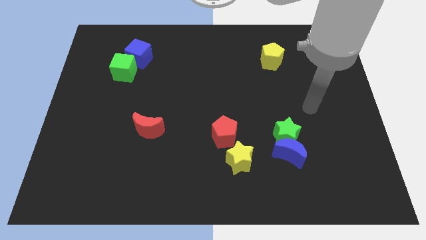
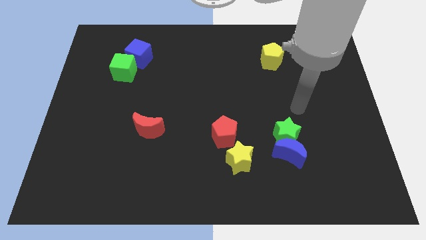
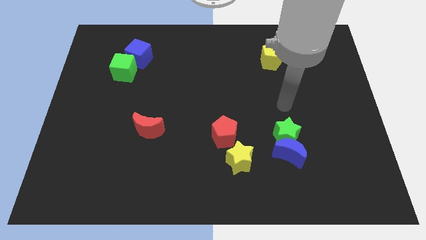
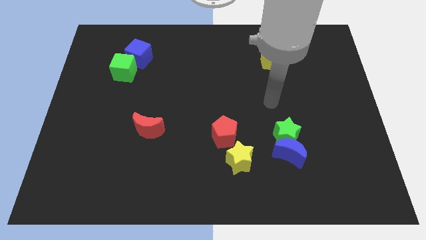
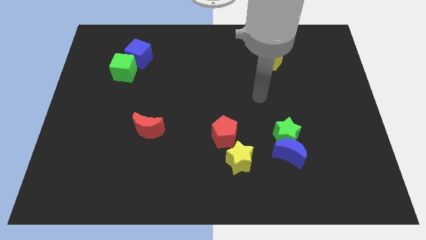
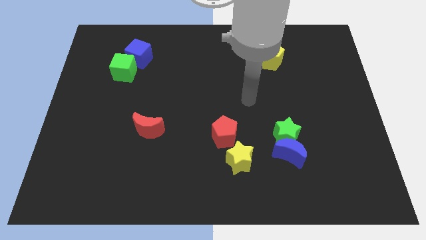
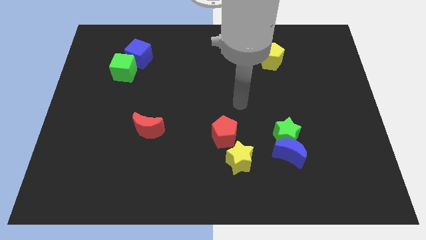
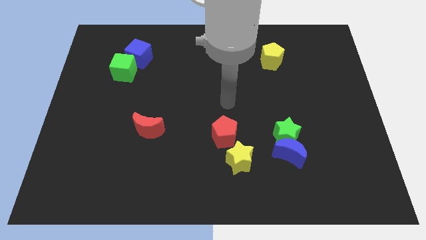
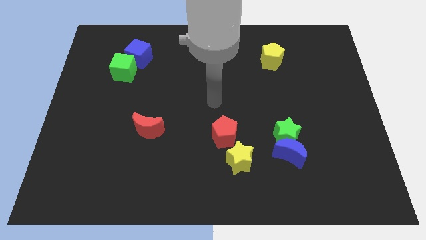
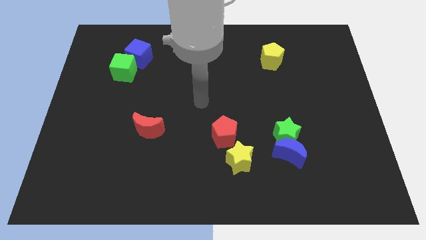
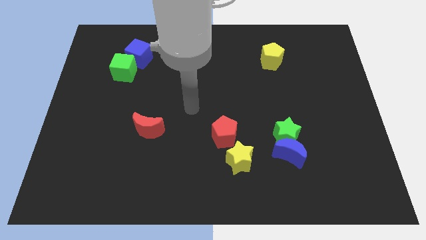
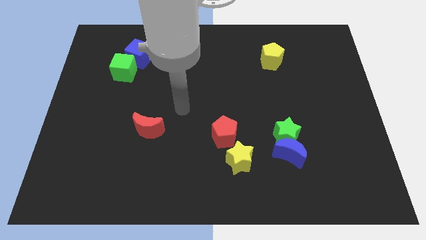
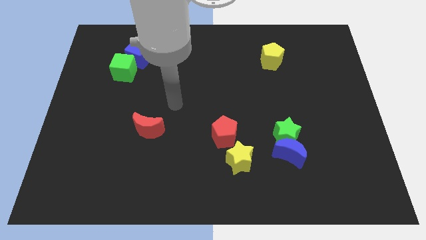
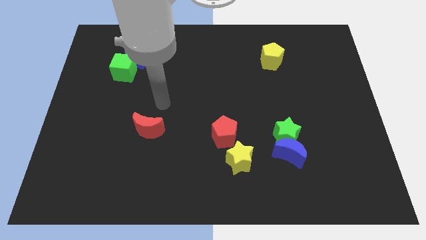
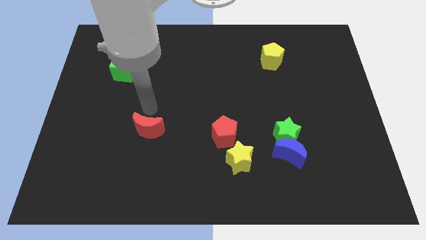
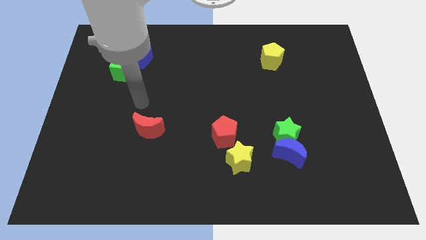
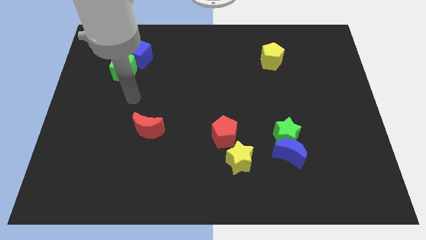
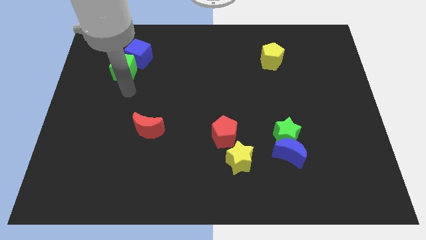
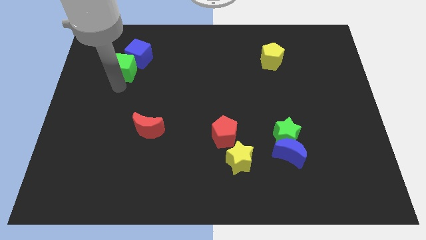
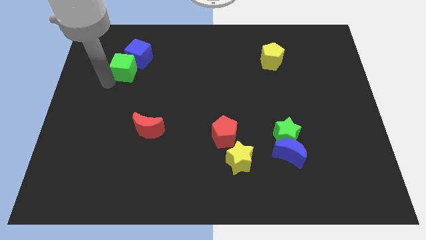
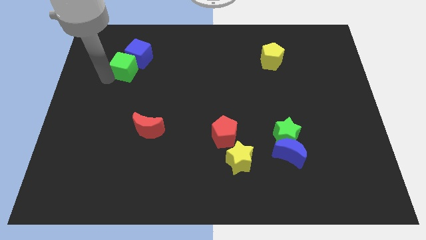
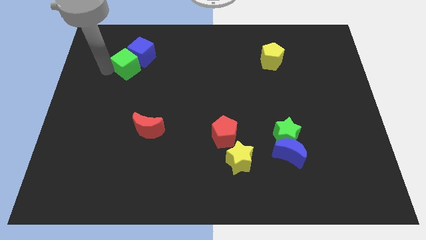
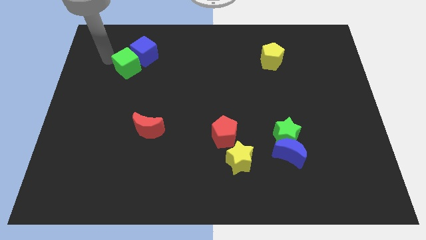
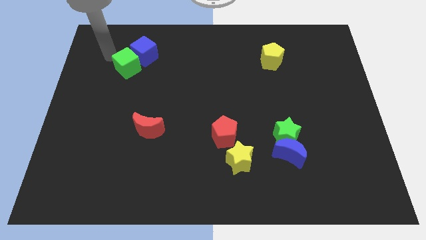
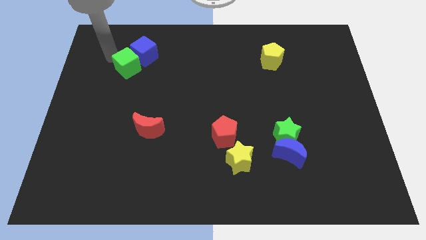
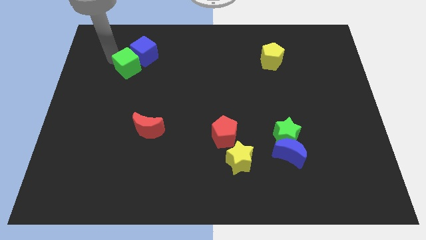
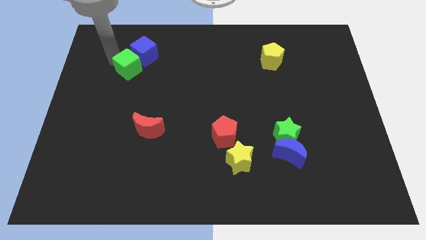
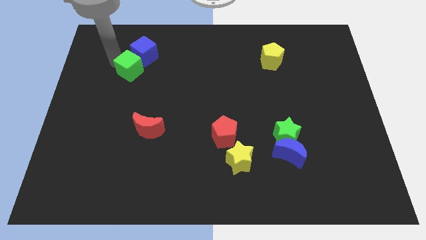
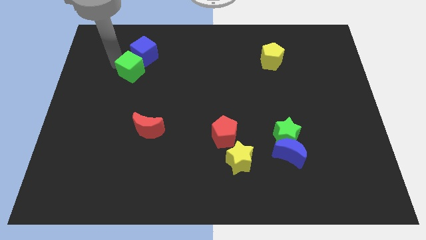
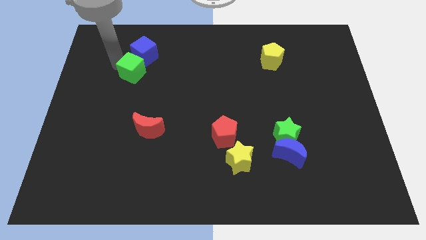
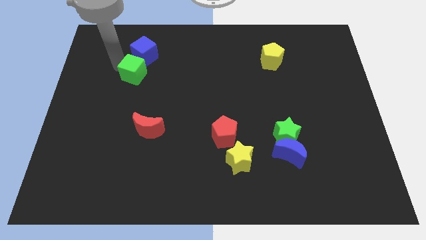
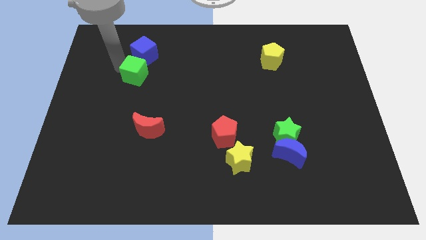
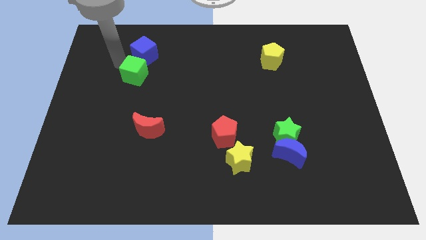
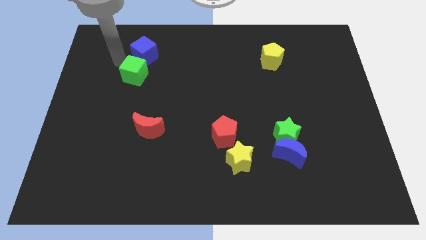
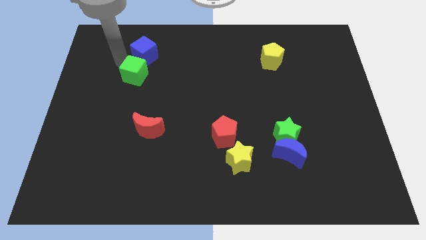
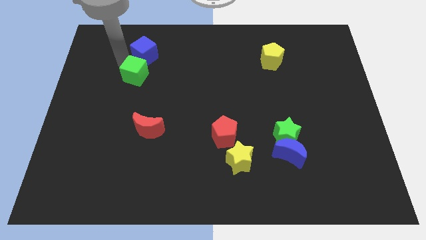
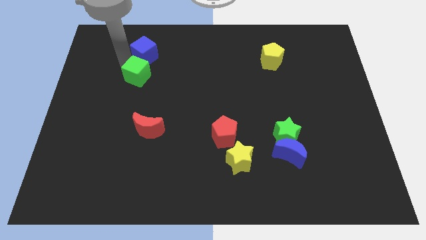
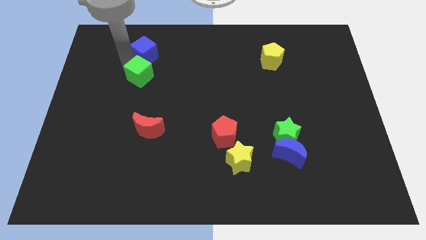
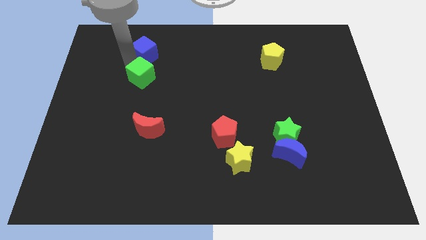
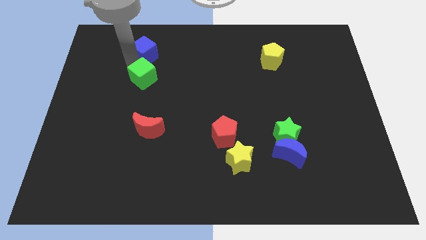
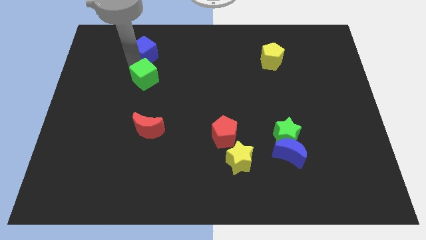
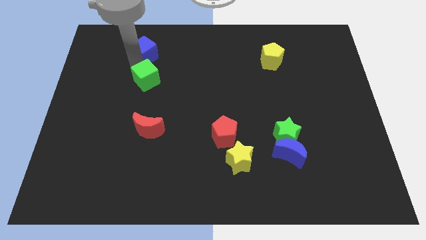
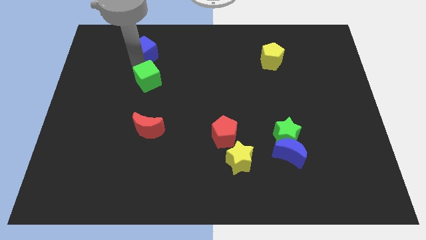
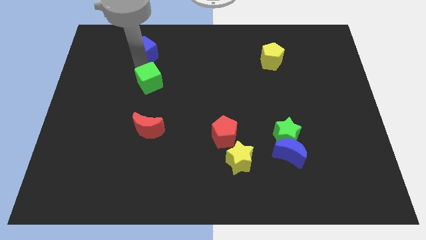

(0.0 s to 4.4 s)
move the green cube somewhat diagonally downwards and to the right

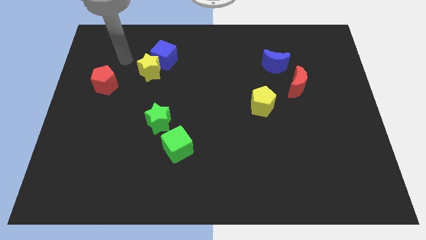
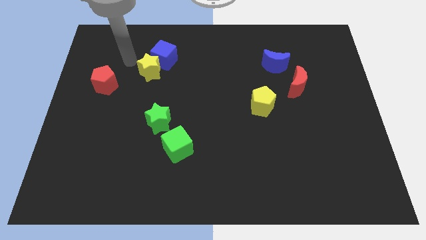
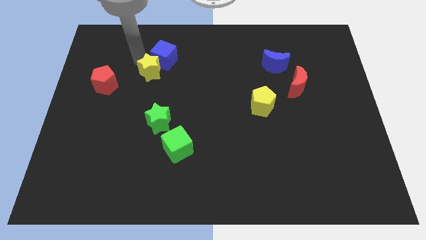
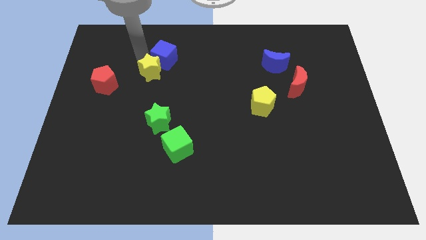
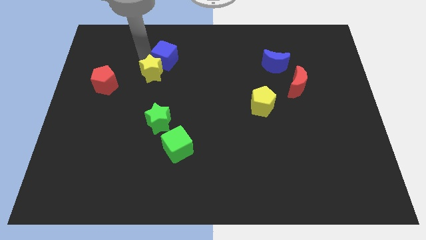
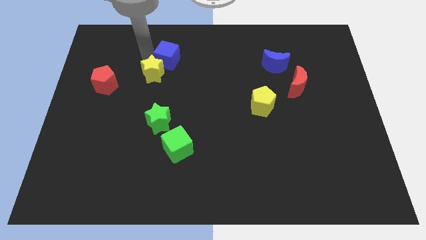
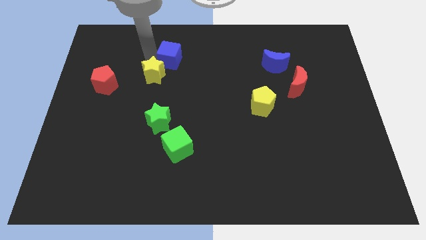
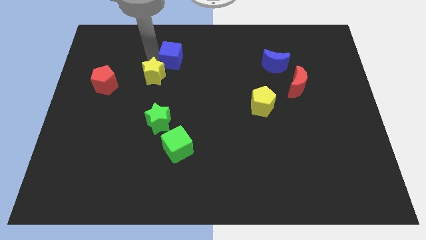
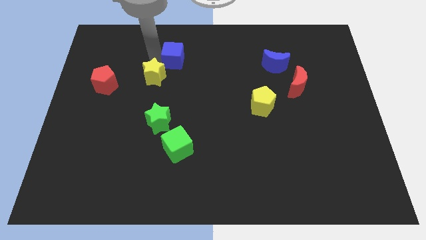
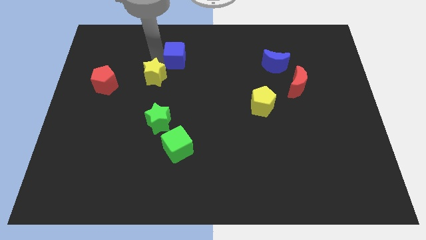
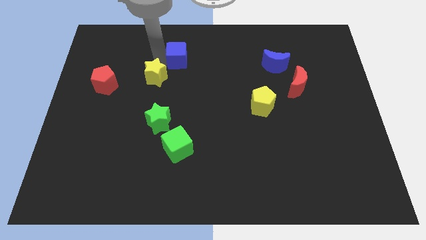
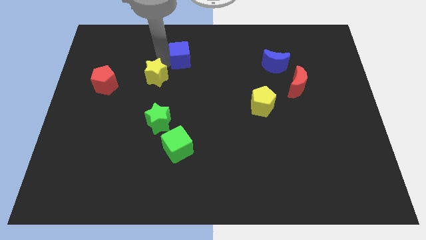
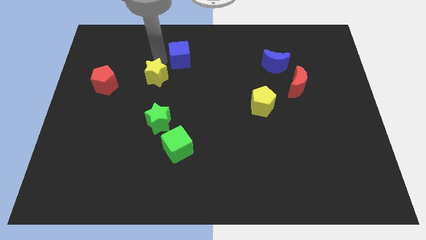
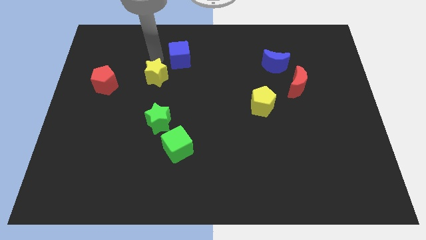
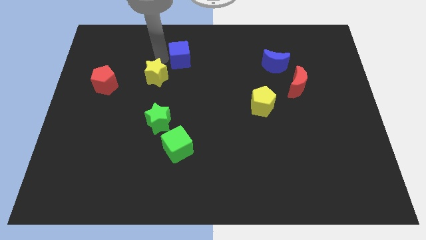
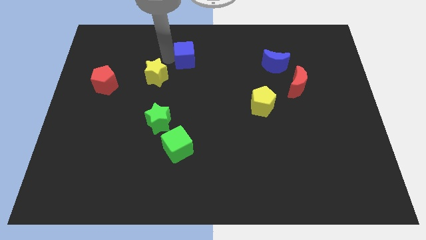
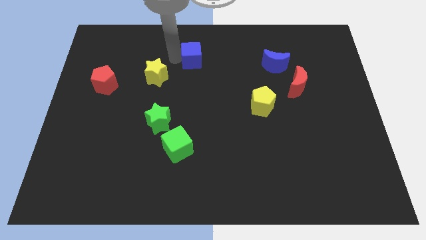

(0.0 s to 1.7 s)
slightly slide the blue cube right

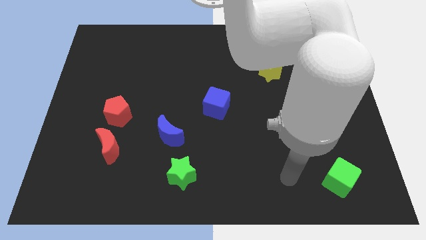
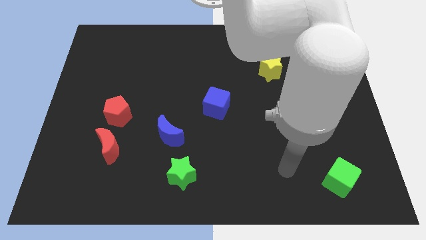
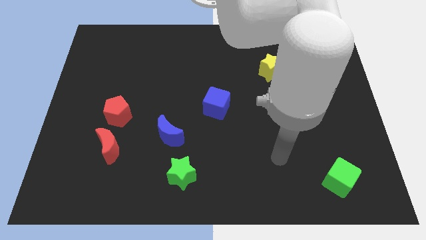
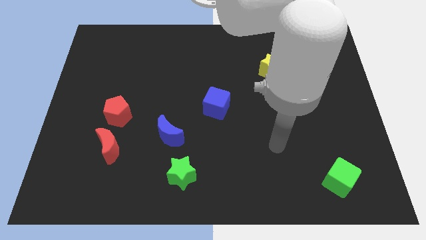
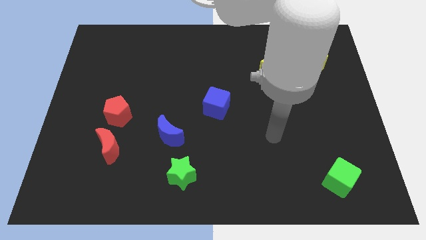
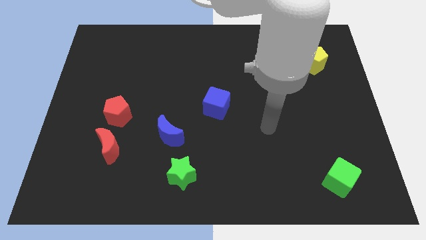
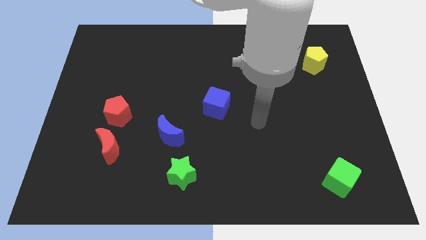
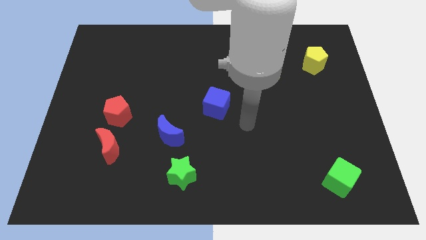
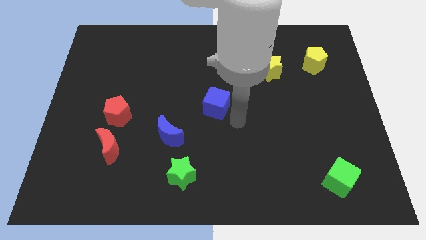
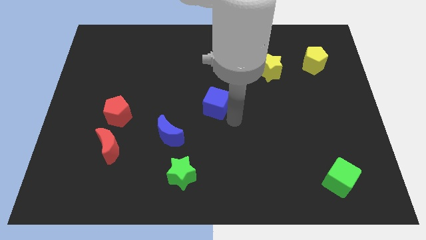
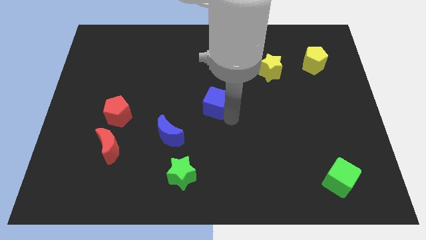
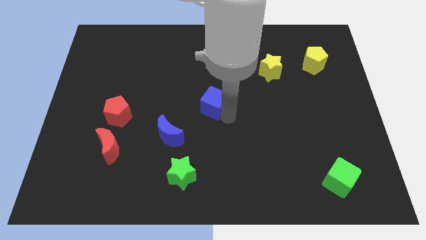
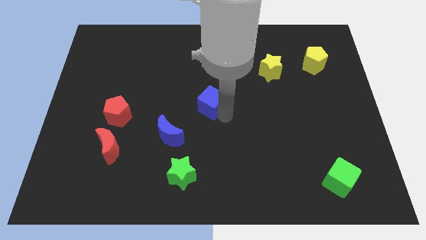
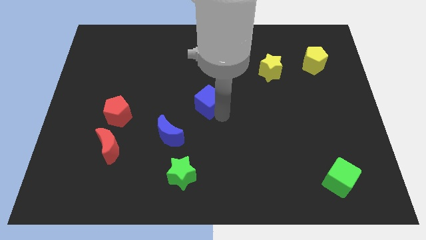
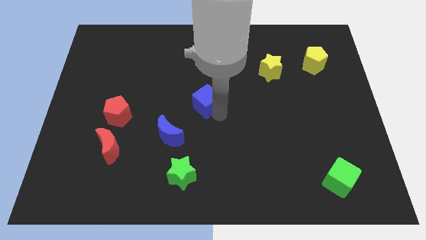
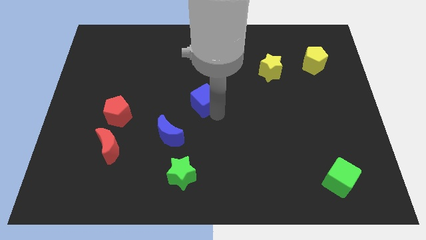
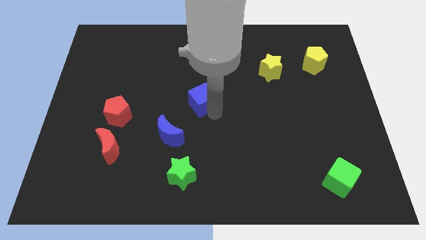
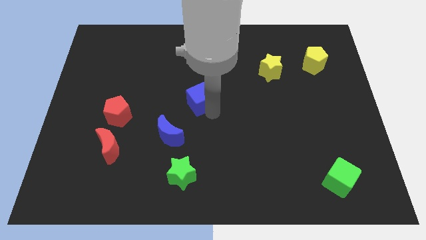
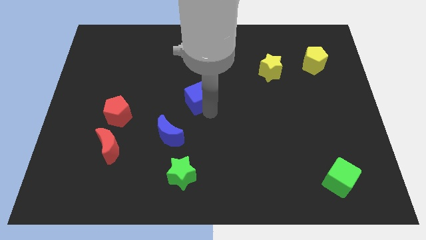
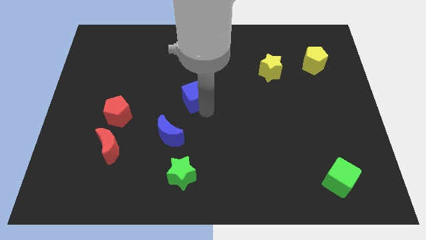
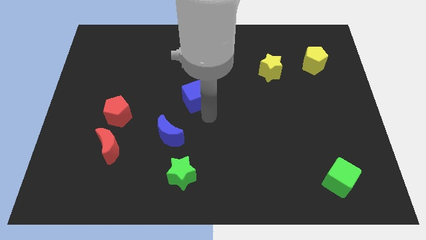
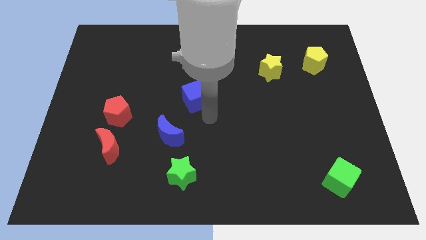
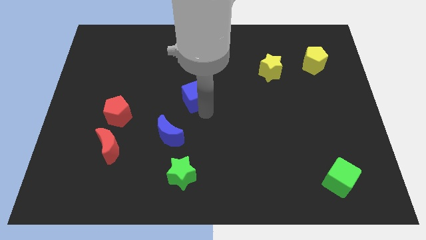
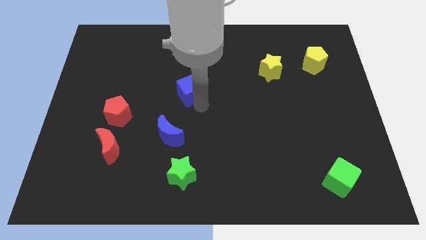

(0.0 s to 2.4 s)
slightly push the blue cube up and left diagonally
